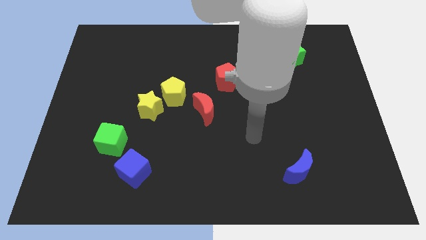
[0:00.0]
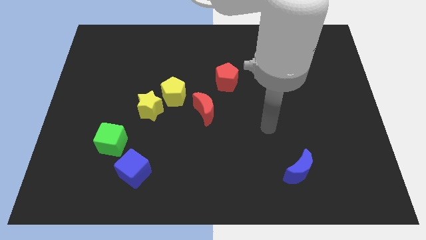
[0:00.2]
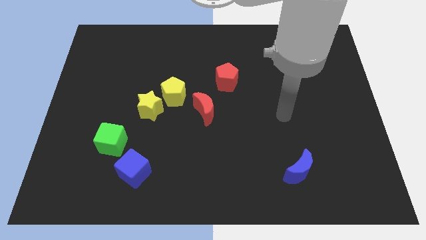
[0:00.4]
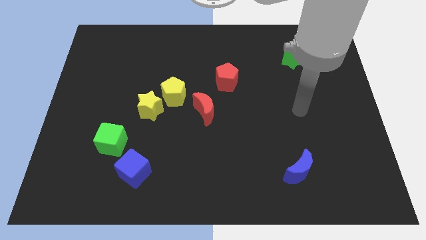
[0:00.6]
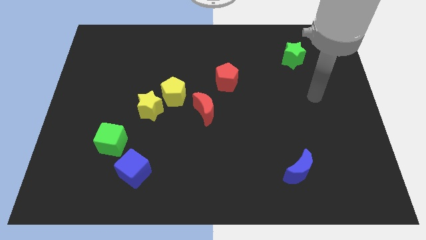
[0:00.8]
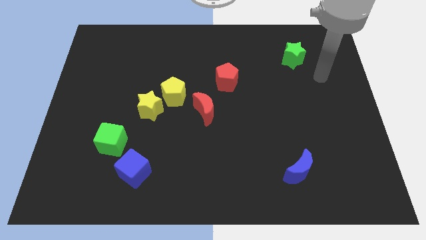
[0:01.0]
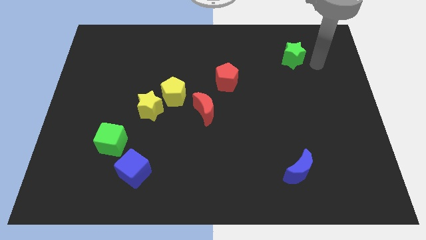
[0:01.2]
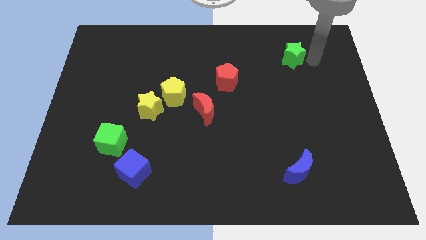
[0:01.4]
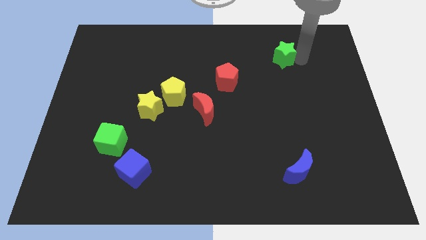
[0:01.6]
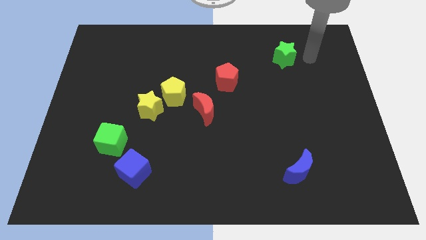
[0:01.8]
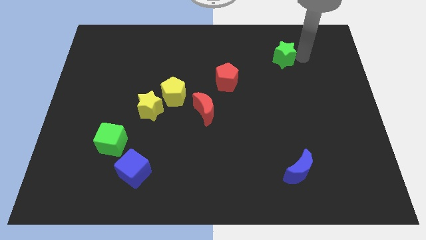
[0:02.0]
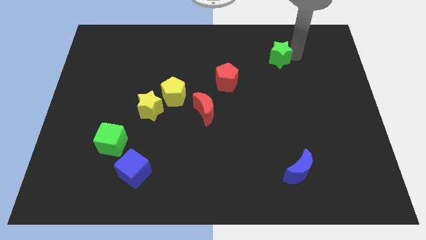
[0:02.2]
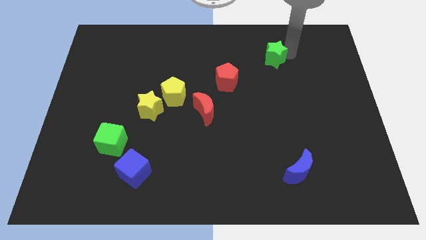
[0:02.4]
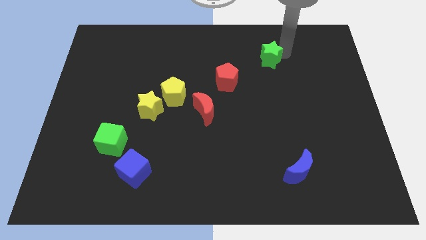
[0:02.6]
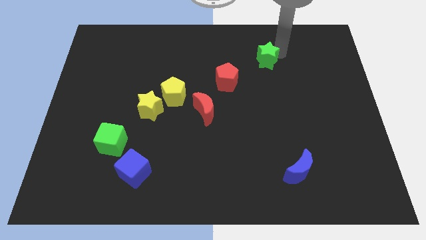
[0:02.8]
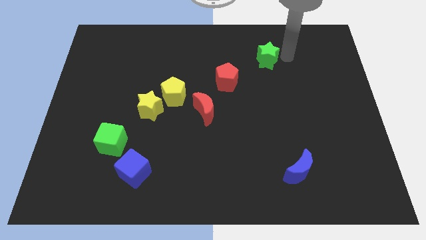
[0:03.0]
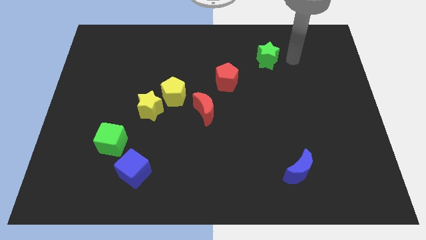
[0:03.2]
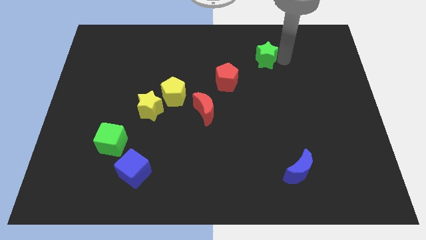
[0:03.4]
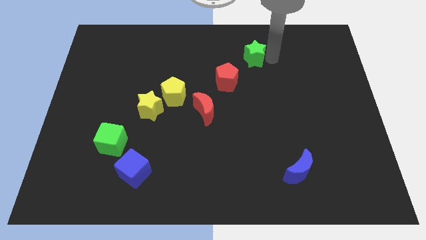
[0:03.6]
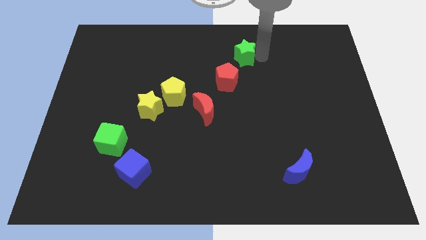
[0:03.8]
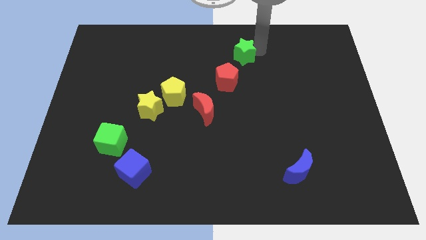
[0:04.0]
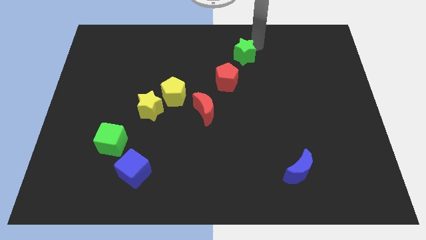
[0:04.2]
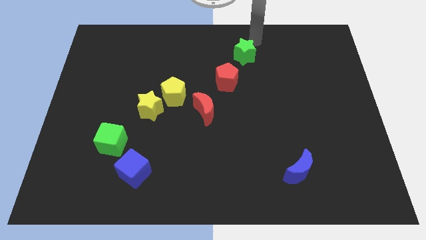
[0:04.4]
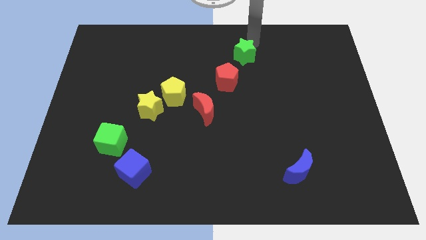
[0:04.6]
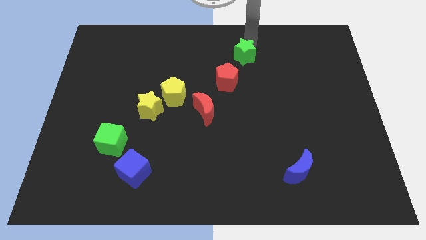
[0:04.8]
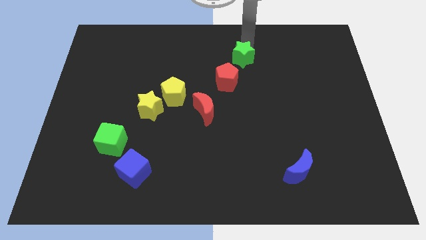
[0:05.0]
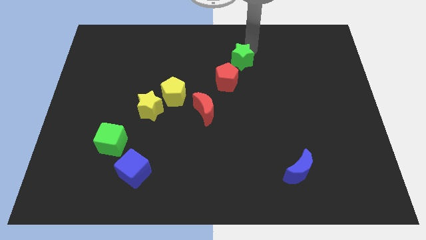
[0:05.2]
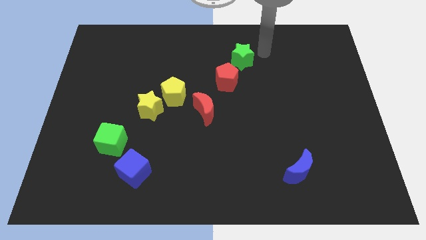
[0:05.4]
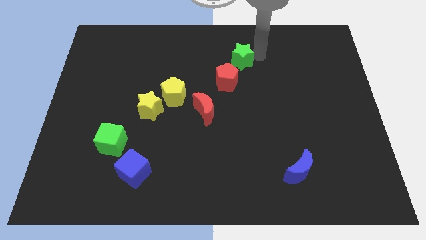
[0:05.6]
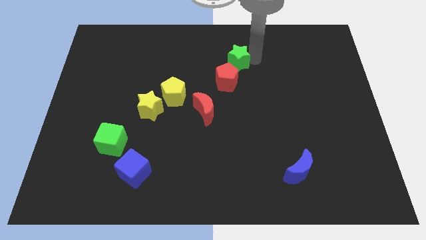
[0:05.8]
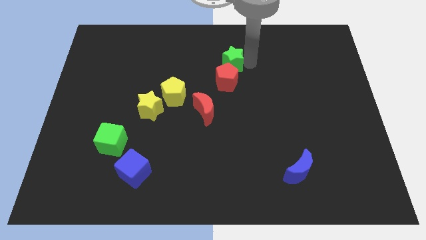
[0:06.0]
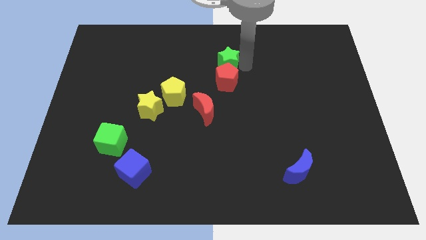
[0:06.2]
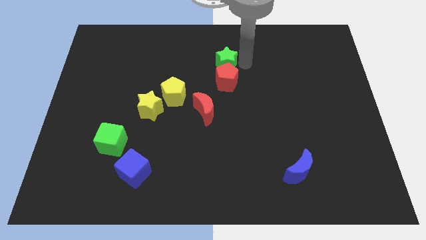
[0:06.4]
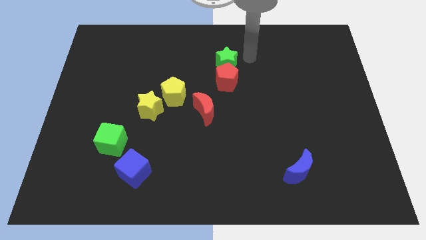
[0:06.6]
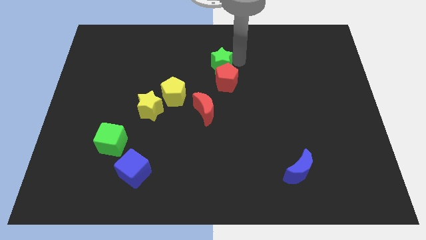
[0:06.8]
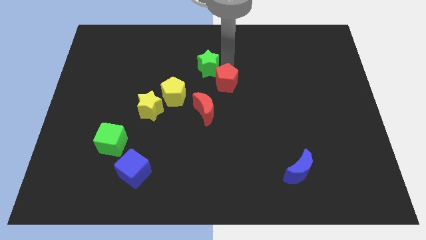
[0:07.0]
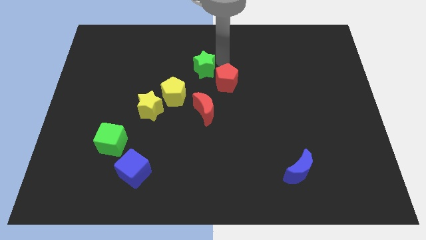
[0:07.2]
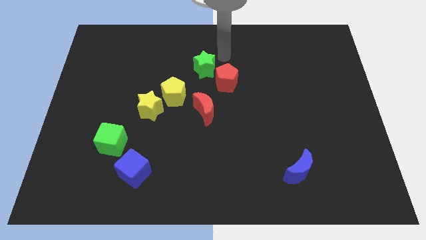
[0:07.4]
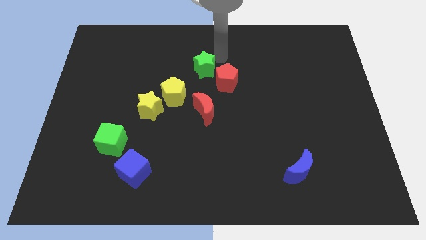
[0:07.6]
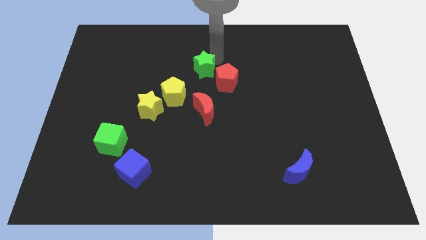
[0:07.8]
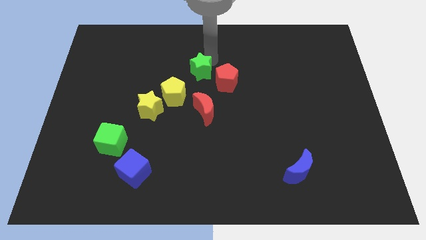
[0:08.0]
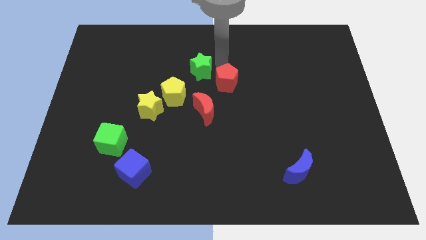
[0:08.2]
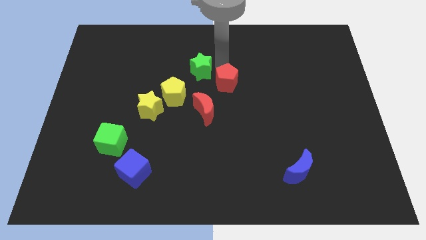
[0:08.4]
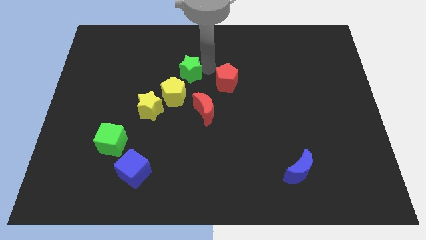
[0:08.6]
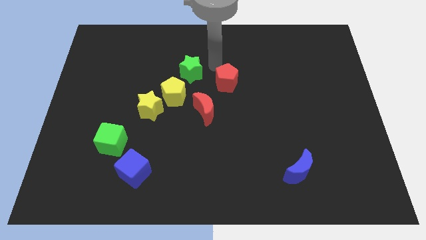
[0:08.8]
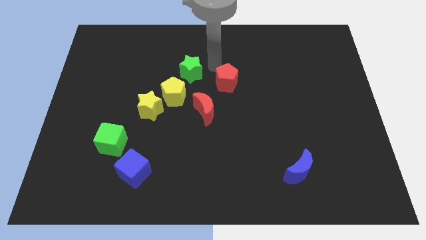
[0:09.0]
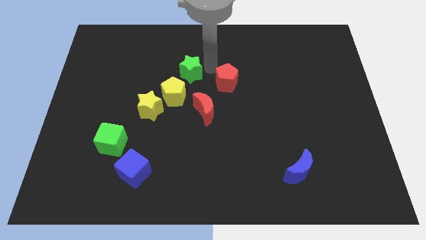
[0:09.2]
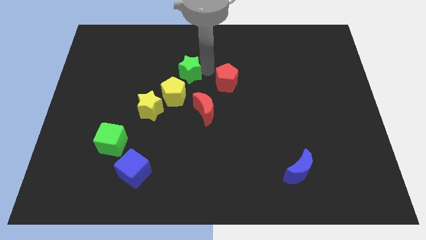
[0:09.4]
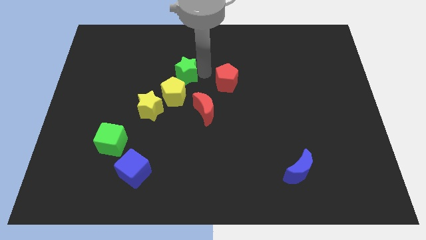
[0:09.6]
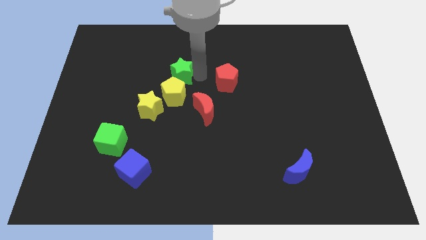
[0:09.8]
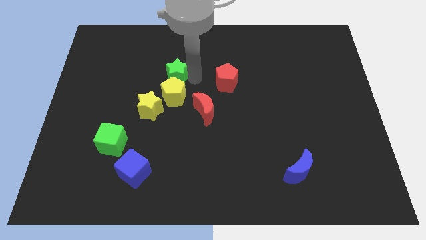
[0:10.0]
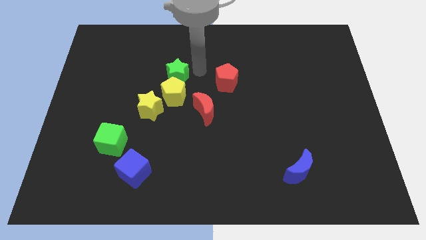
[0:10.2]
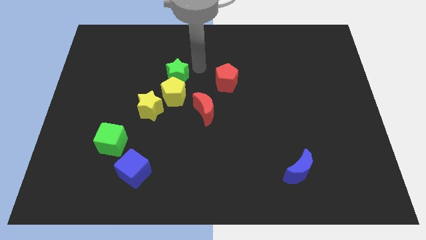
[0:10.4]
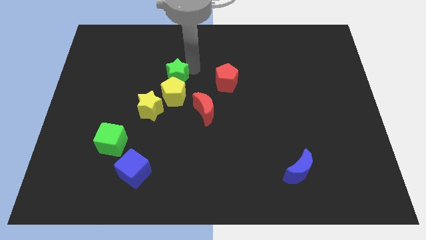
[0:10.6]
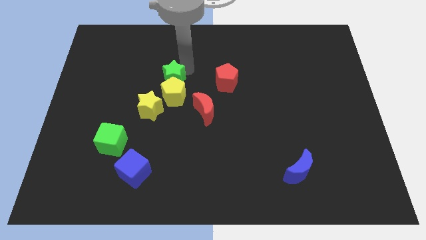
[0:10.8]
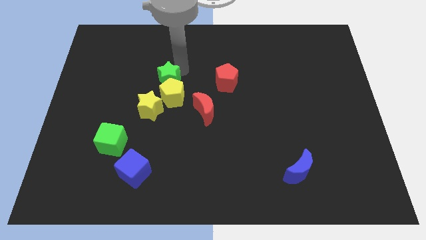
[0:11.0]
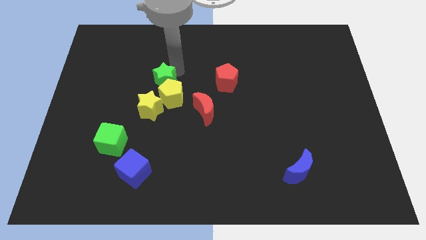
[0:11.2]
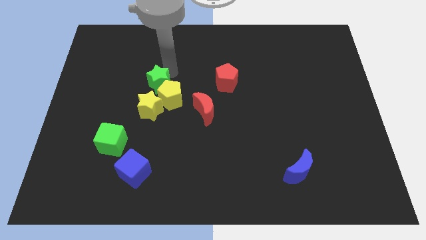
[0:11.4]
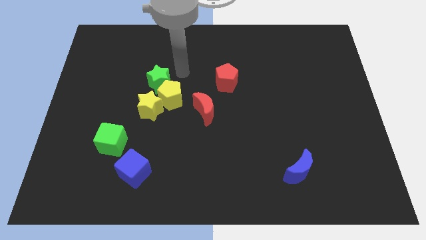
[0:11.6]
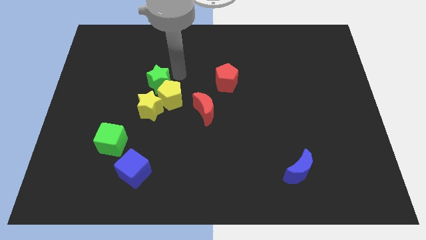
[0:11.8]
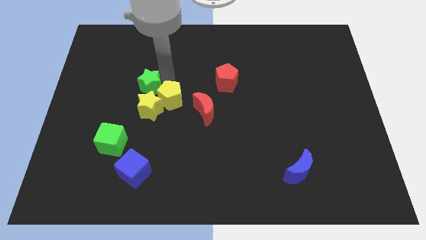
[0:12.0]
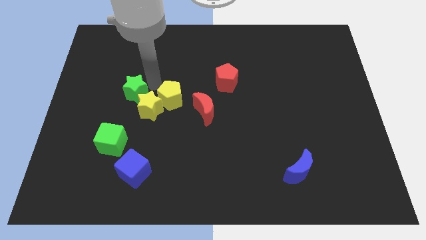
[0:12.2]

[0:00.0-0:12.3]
push the green star above the green cube
